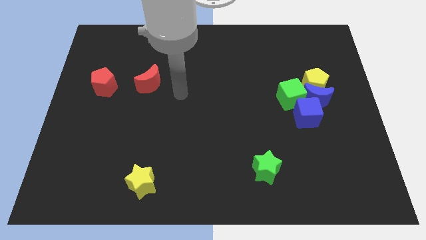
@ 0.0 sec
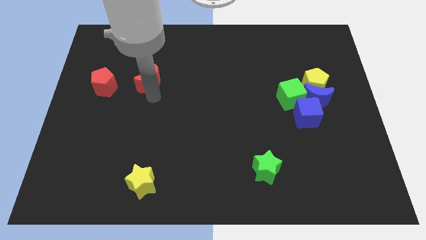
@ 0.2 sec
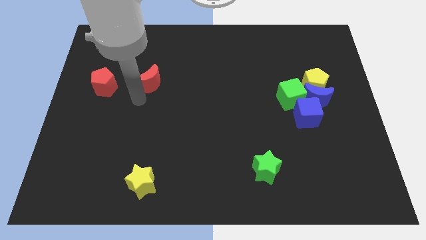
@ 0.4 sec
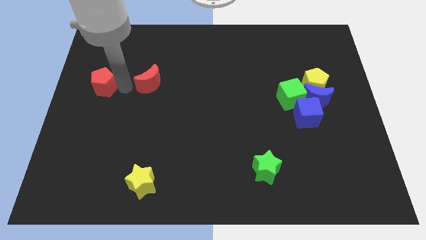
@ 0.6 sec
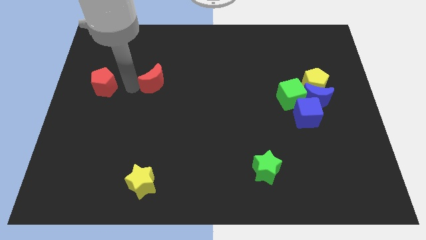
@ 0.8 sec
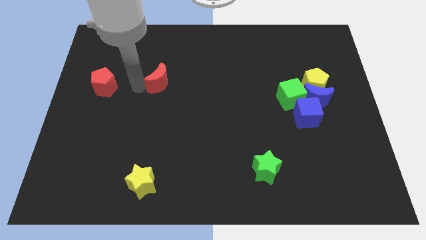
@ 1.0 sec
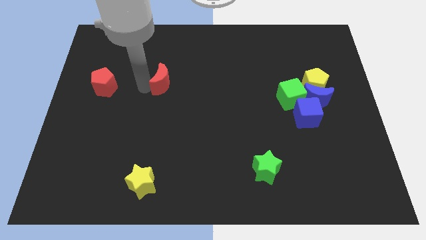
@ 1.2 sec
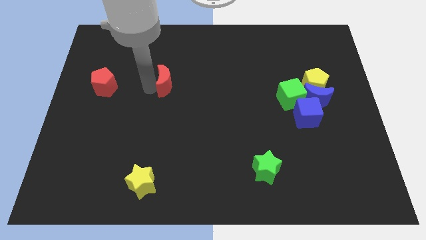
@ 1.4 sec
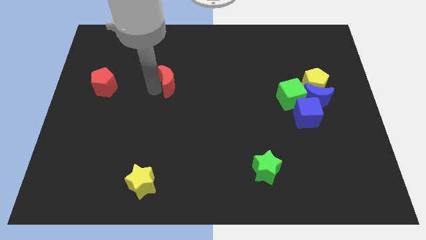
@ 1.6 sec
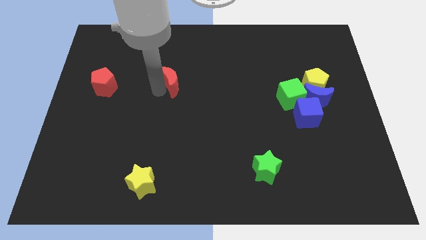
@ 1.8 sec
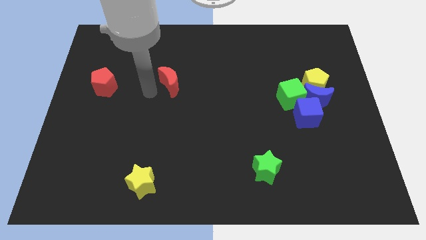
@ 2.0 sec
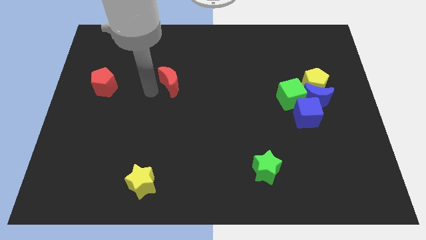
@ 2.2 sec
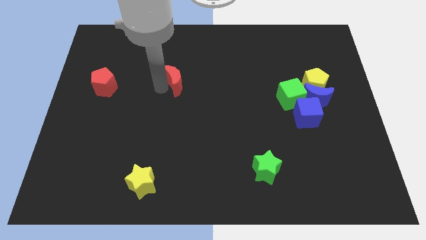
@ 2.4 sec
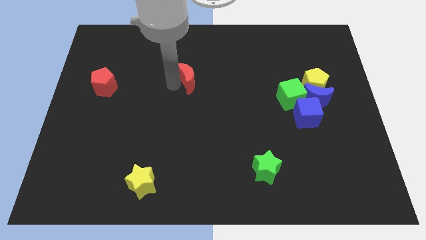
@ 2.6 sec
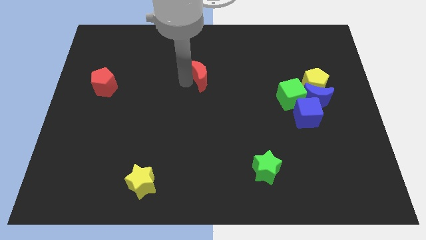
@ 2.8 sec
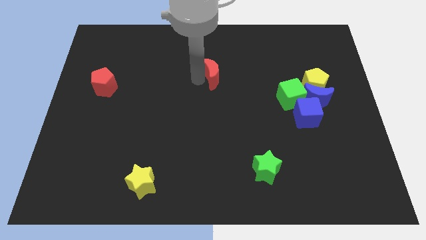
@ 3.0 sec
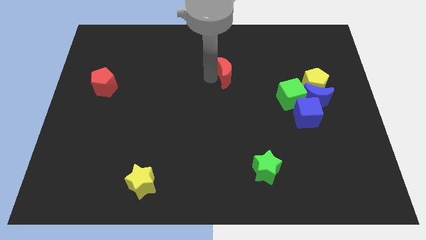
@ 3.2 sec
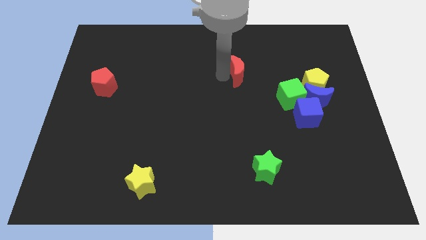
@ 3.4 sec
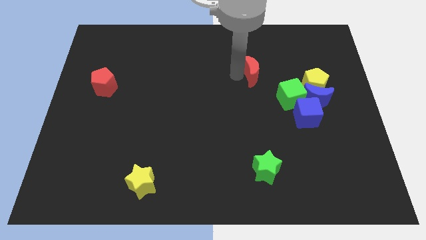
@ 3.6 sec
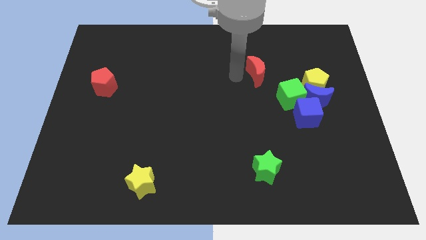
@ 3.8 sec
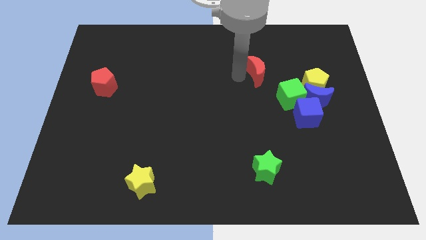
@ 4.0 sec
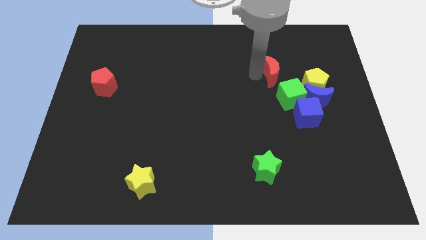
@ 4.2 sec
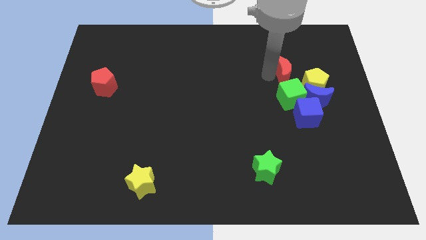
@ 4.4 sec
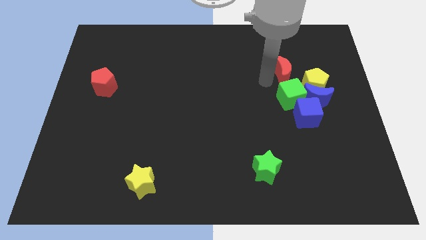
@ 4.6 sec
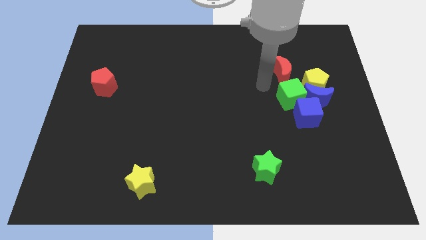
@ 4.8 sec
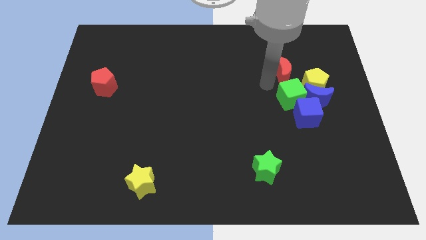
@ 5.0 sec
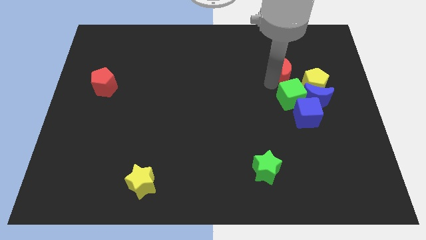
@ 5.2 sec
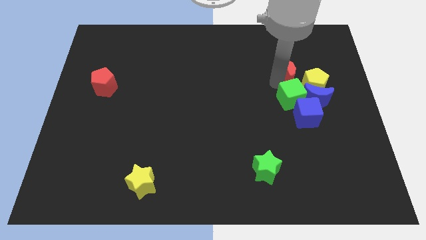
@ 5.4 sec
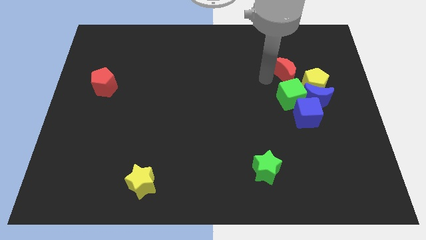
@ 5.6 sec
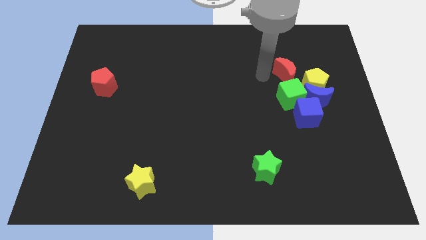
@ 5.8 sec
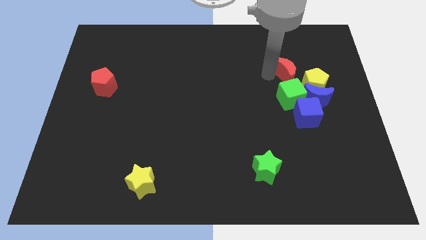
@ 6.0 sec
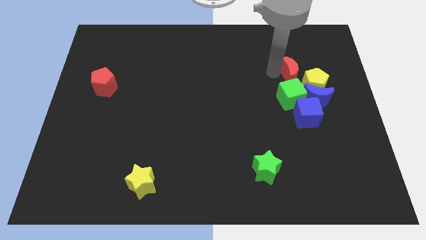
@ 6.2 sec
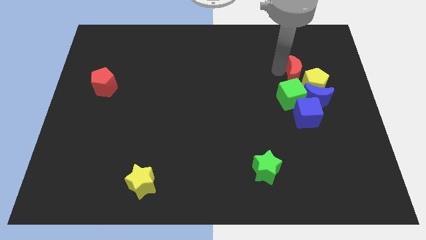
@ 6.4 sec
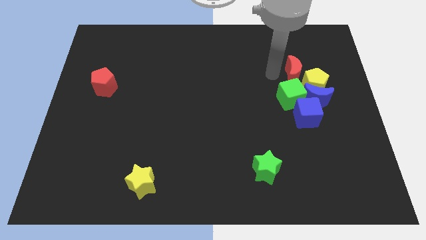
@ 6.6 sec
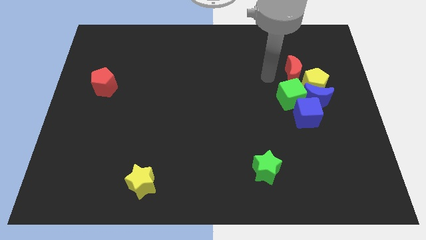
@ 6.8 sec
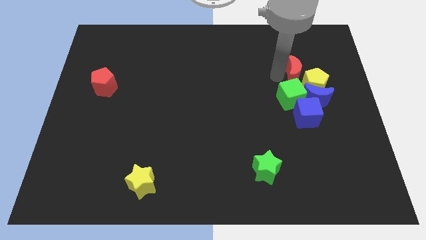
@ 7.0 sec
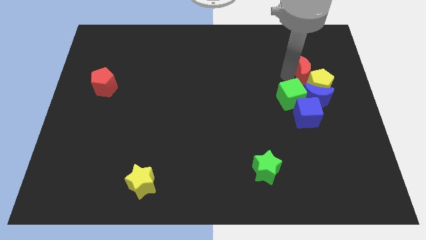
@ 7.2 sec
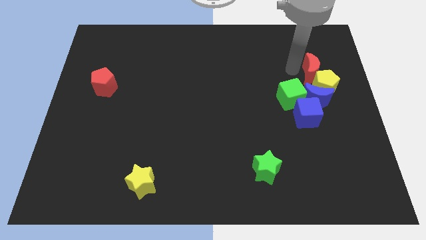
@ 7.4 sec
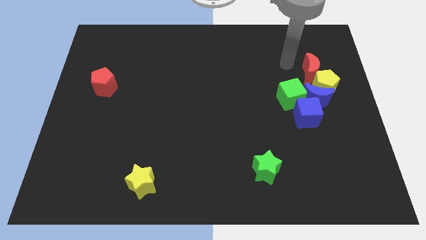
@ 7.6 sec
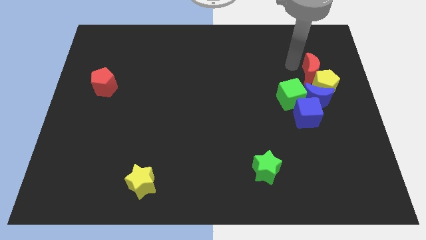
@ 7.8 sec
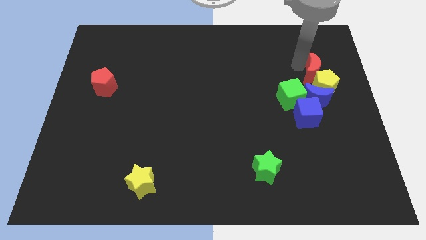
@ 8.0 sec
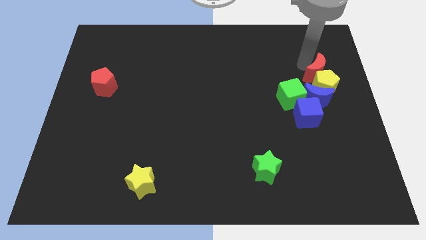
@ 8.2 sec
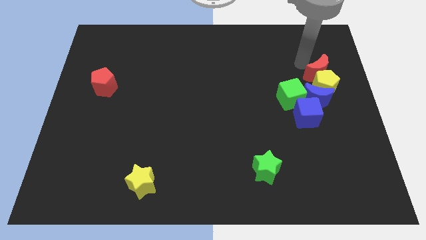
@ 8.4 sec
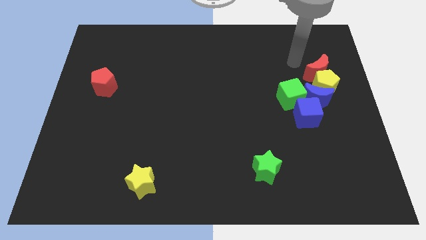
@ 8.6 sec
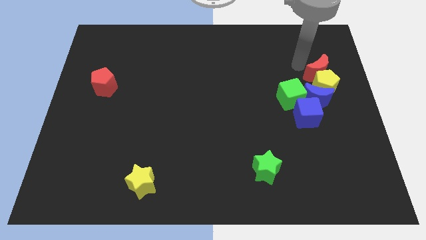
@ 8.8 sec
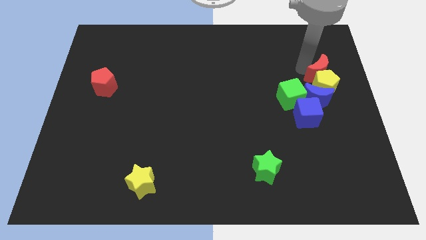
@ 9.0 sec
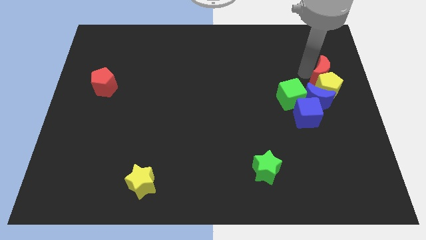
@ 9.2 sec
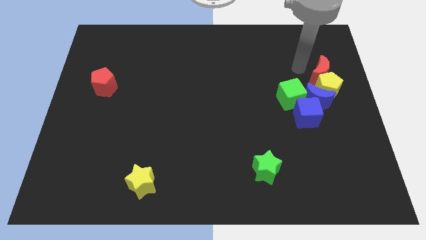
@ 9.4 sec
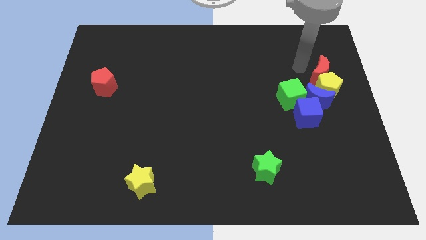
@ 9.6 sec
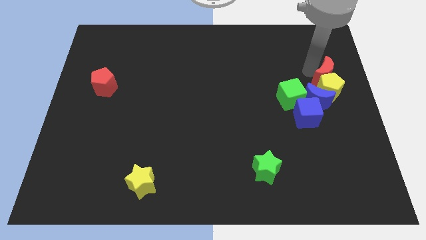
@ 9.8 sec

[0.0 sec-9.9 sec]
slide the red moon to the right side
